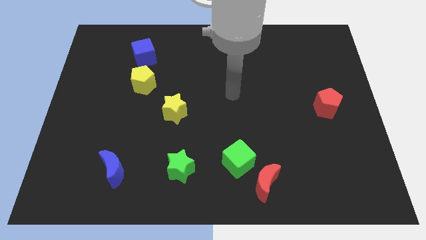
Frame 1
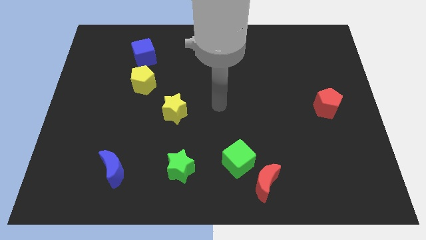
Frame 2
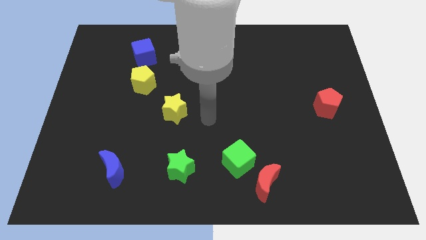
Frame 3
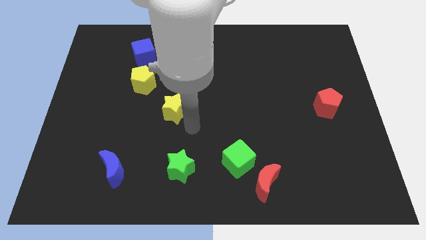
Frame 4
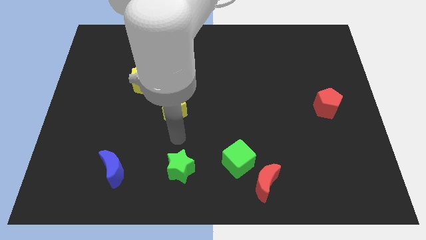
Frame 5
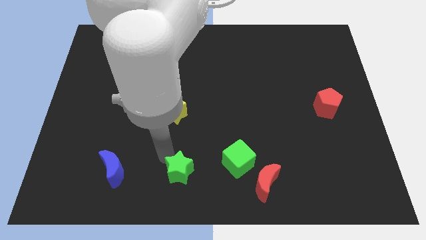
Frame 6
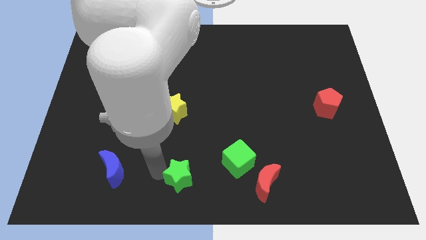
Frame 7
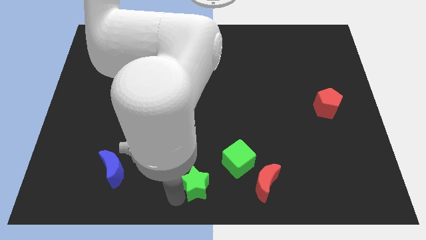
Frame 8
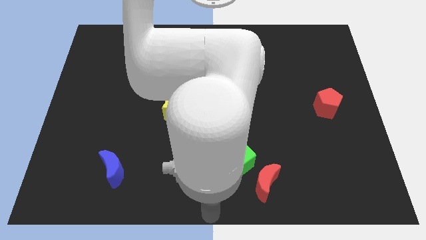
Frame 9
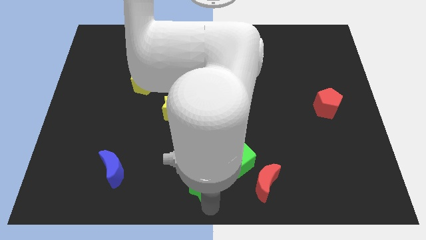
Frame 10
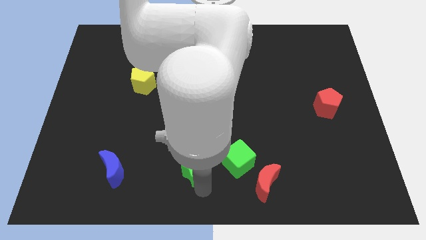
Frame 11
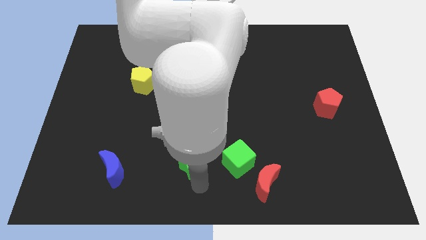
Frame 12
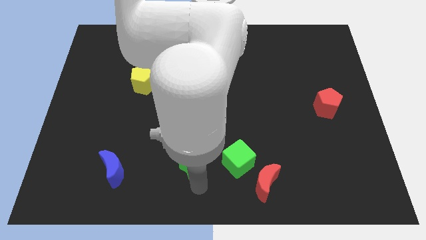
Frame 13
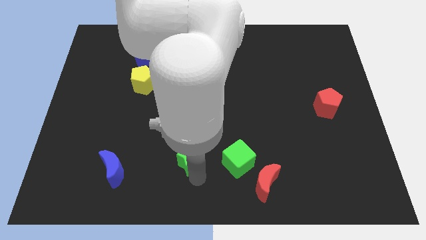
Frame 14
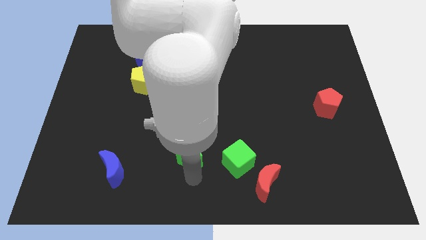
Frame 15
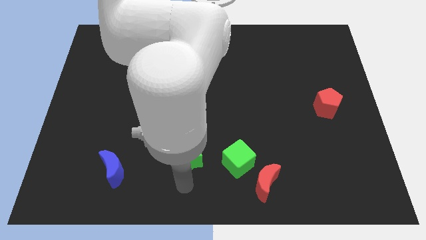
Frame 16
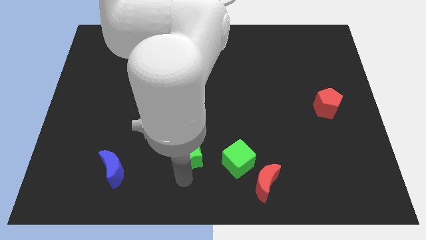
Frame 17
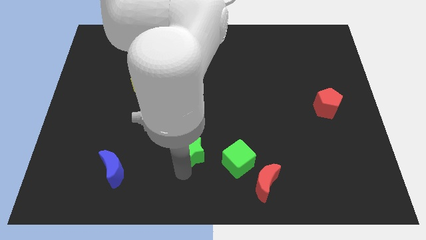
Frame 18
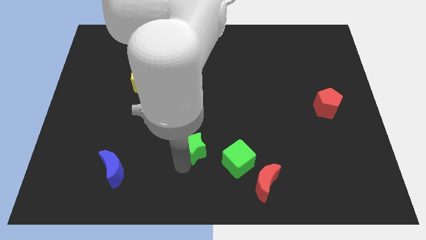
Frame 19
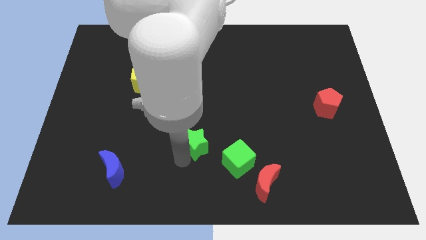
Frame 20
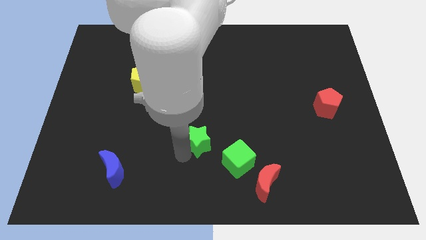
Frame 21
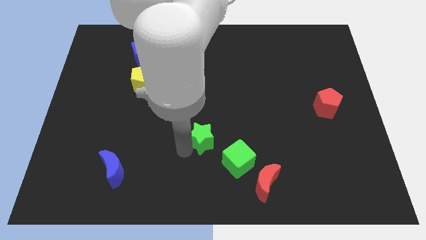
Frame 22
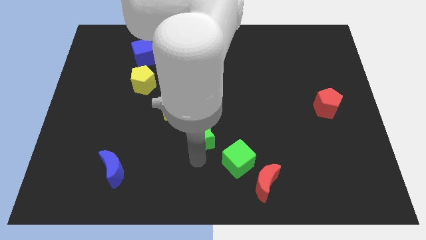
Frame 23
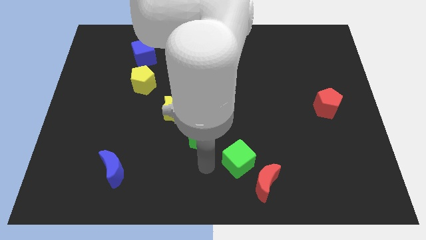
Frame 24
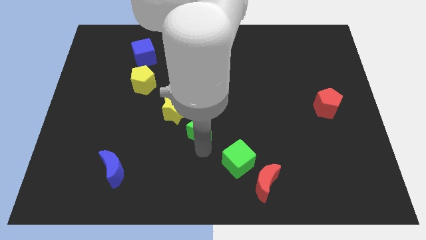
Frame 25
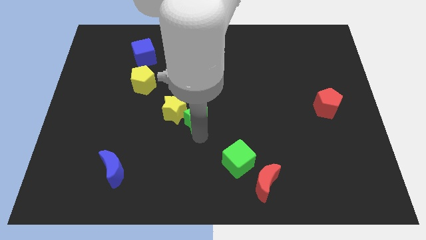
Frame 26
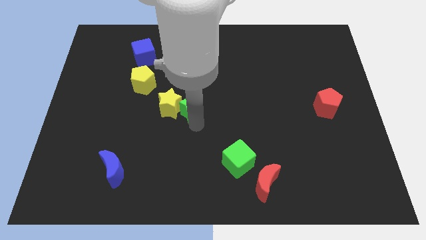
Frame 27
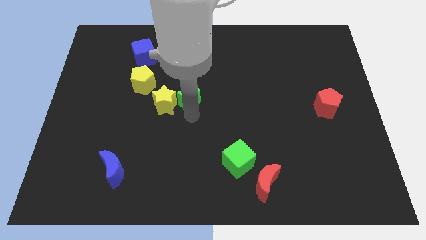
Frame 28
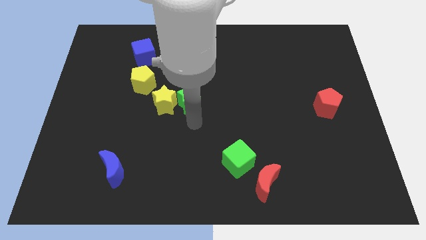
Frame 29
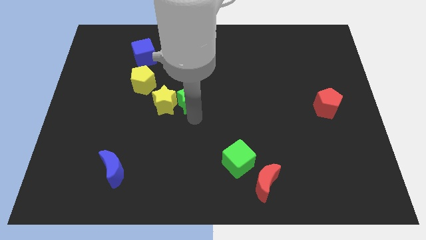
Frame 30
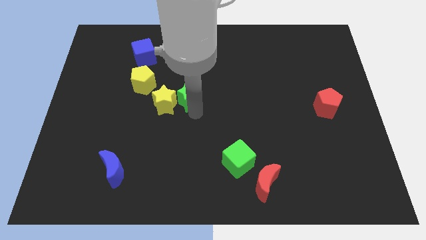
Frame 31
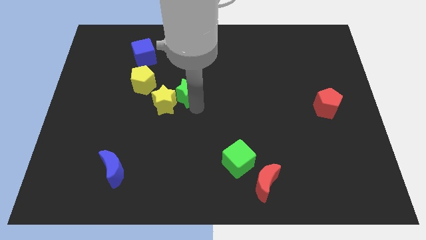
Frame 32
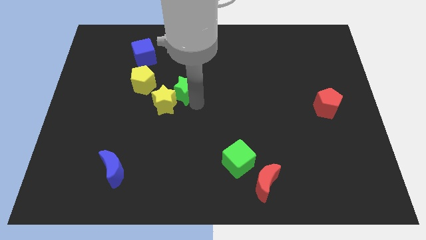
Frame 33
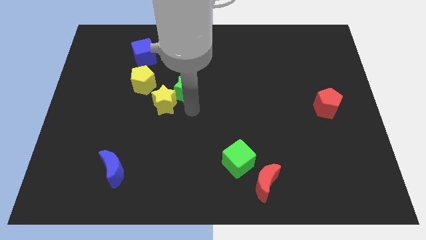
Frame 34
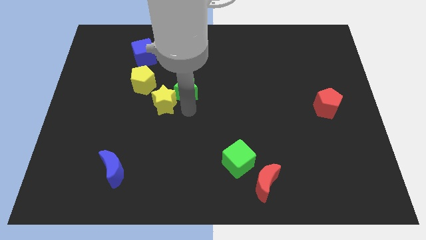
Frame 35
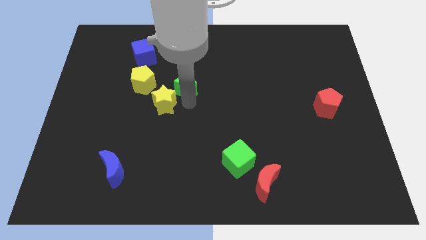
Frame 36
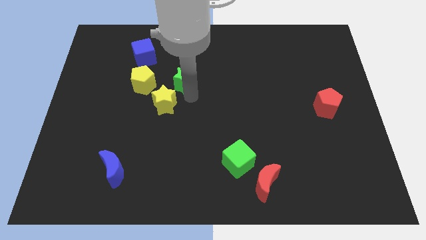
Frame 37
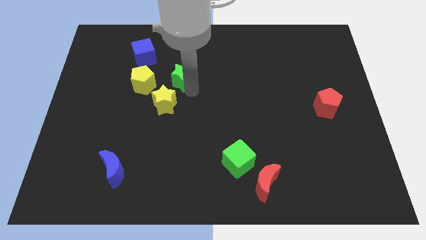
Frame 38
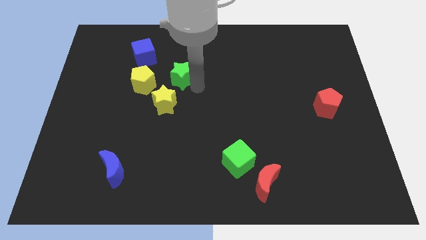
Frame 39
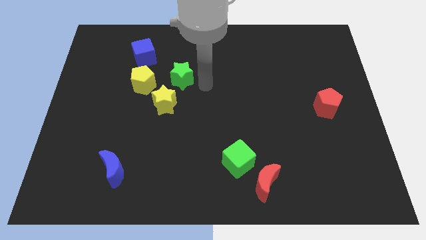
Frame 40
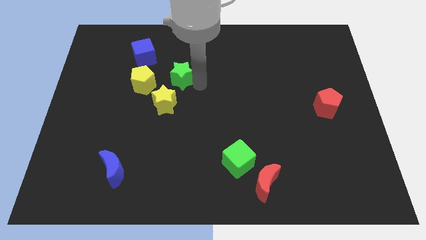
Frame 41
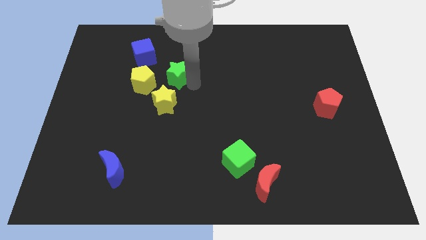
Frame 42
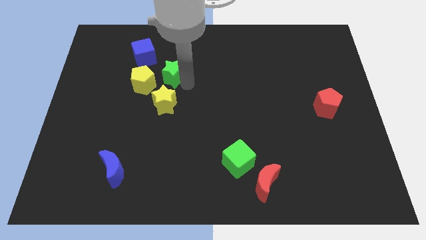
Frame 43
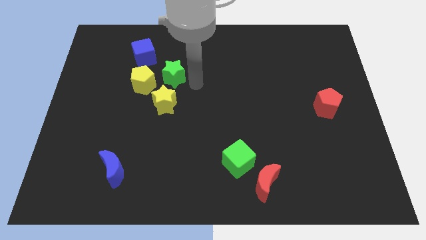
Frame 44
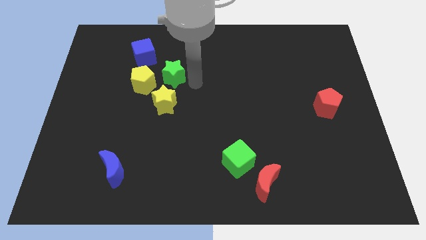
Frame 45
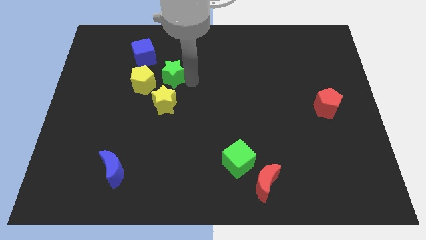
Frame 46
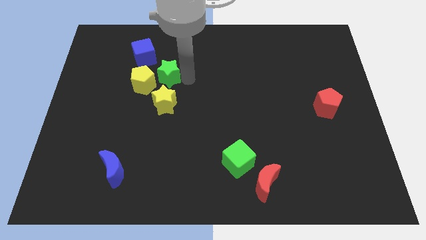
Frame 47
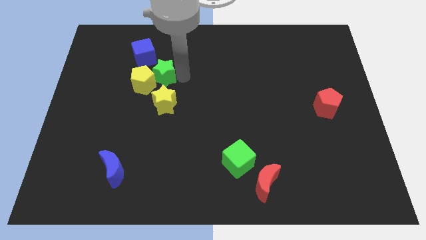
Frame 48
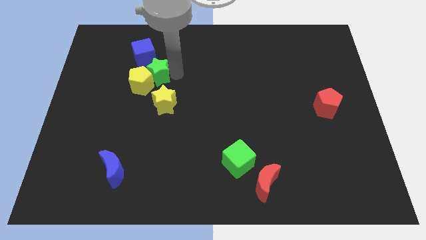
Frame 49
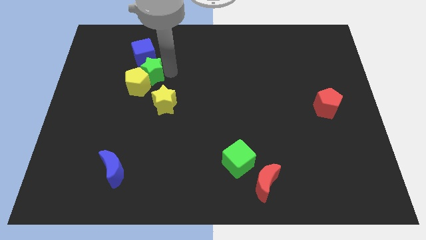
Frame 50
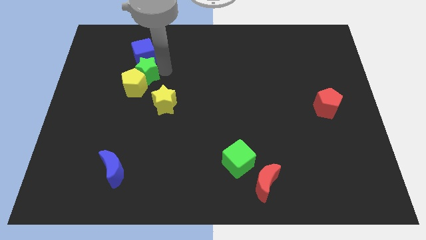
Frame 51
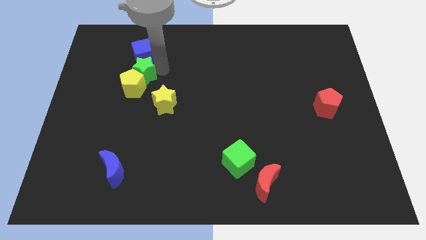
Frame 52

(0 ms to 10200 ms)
slide the green star close to the blue cube

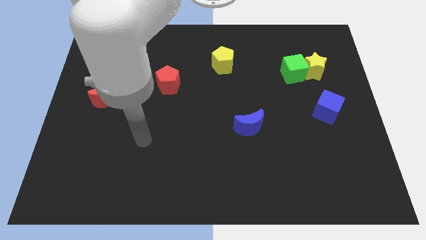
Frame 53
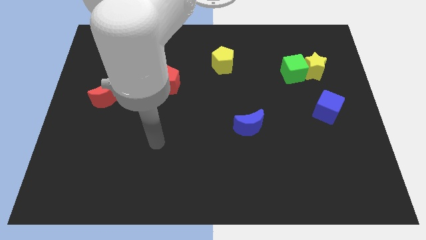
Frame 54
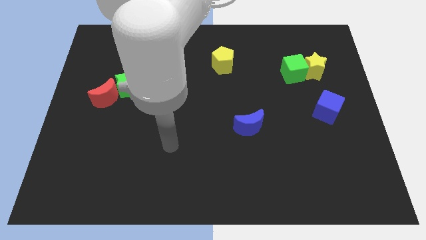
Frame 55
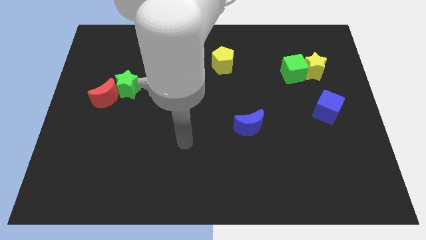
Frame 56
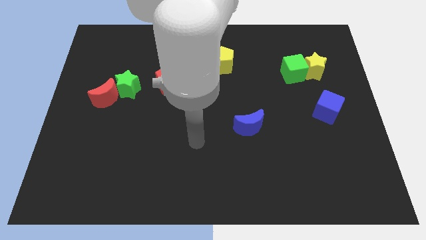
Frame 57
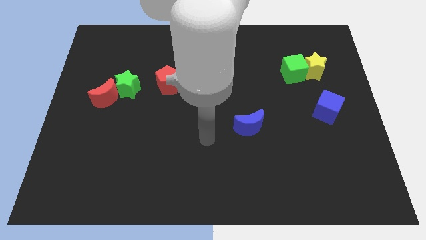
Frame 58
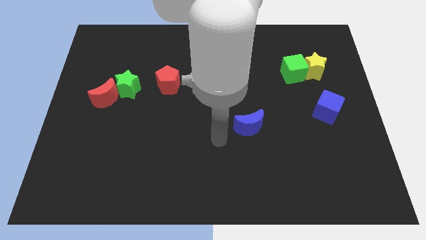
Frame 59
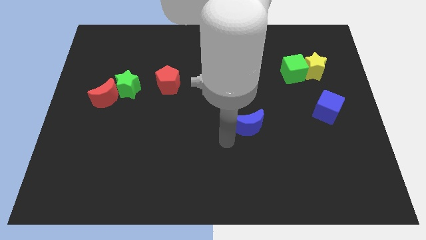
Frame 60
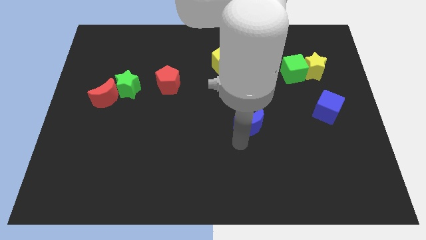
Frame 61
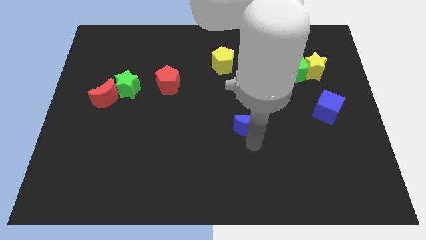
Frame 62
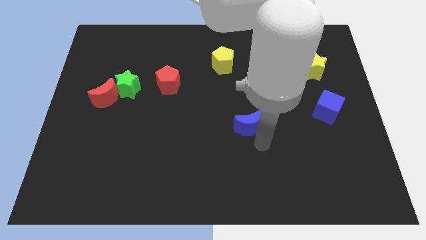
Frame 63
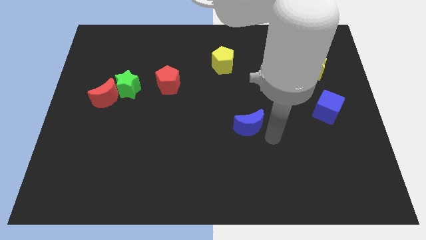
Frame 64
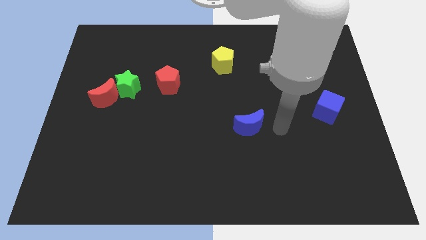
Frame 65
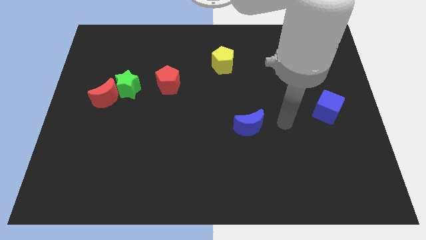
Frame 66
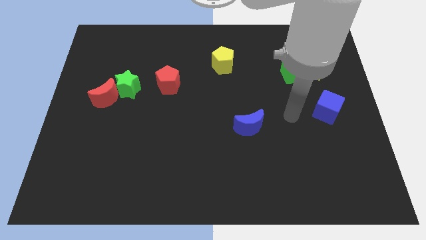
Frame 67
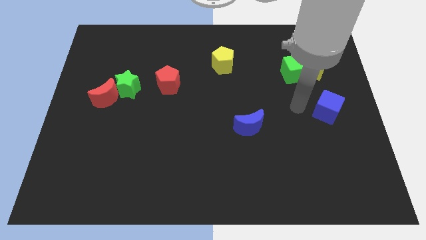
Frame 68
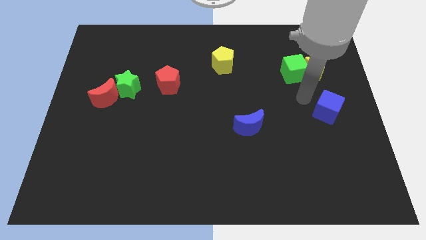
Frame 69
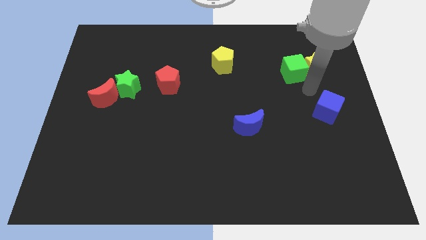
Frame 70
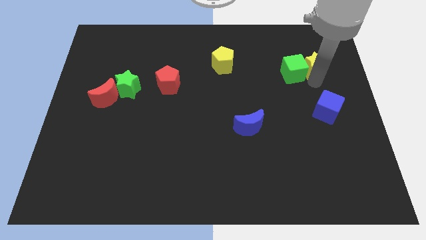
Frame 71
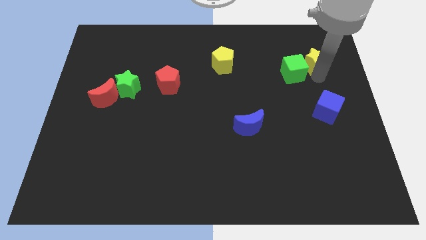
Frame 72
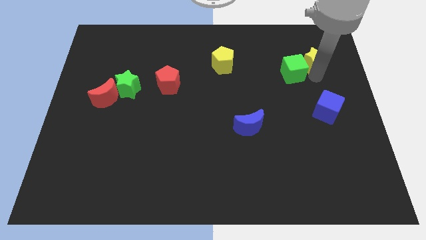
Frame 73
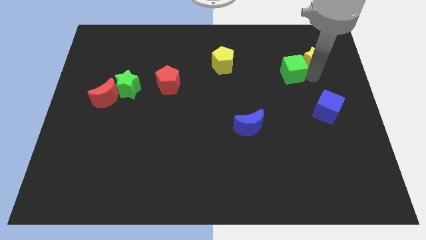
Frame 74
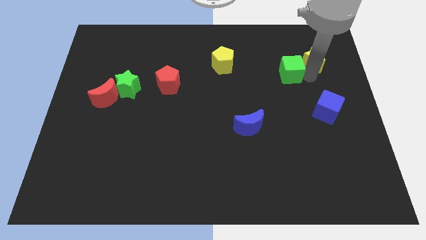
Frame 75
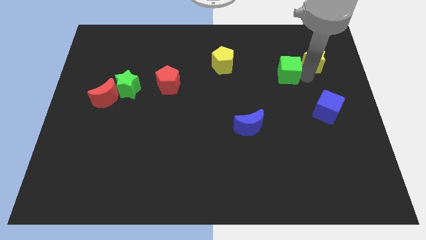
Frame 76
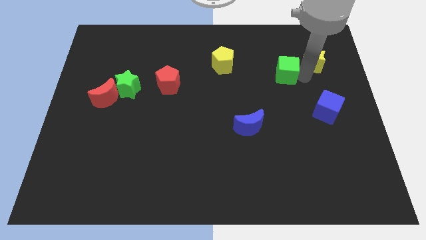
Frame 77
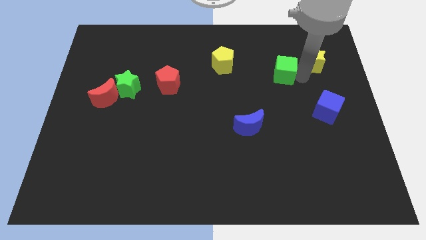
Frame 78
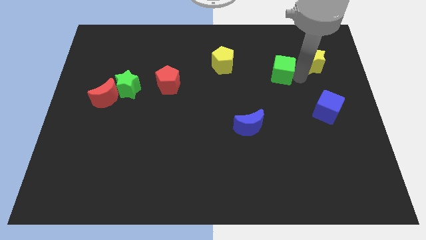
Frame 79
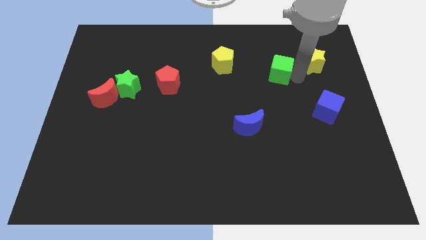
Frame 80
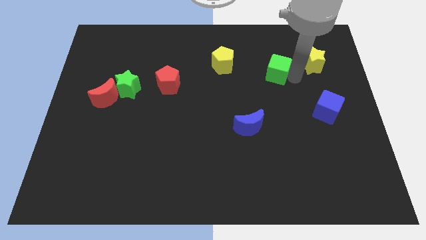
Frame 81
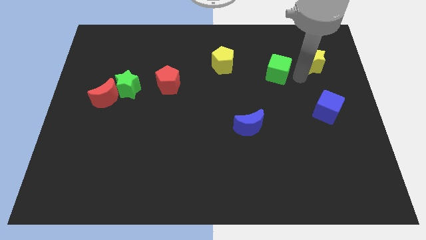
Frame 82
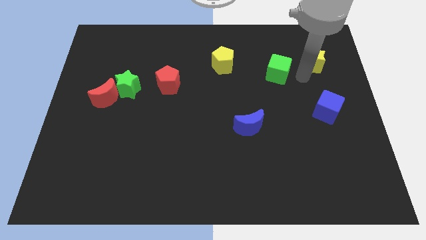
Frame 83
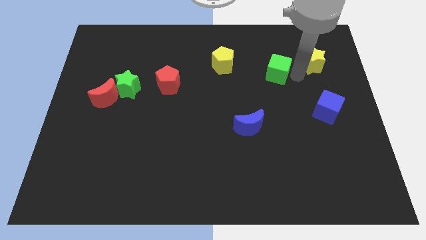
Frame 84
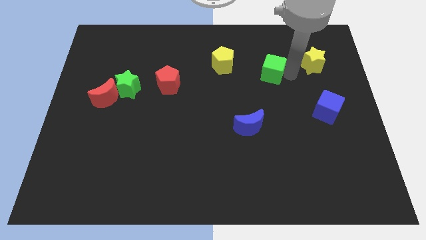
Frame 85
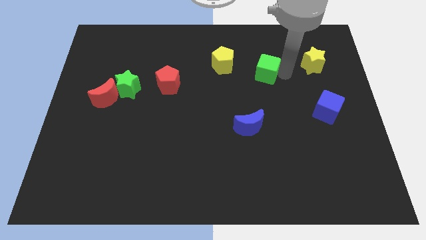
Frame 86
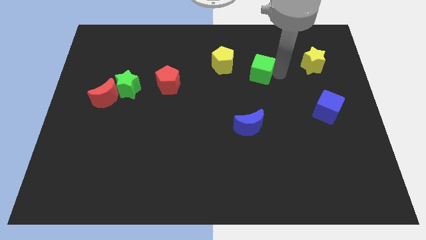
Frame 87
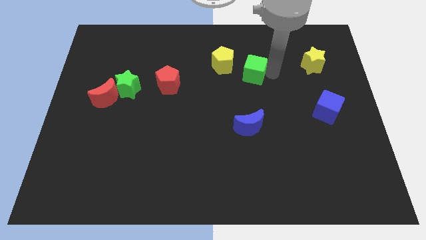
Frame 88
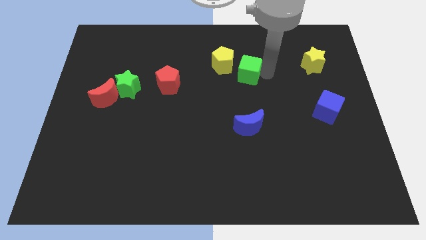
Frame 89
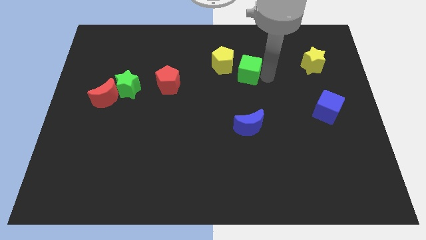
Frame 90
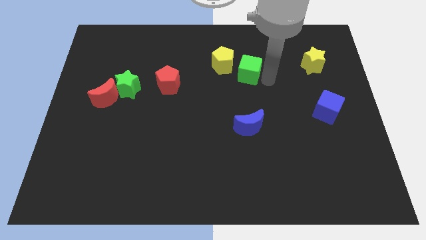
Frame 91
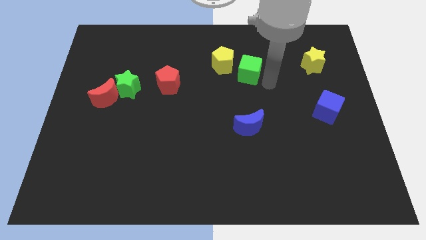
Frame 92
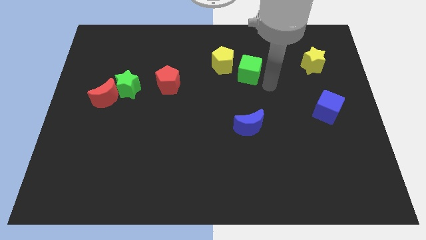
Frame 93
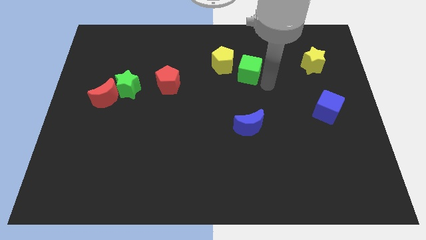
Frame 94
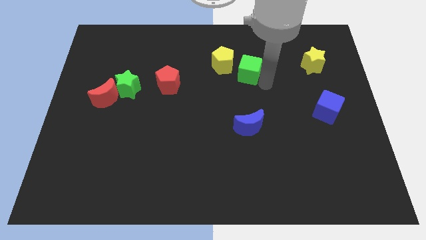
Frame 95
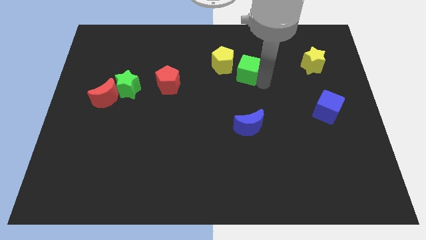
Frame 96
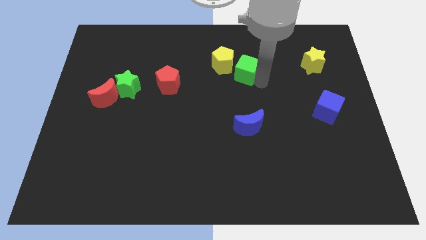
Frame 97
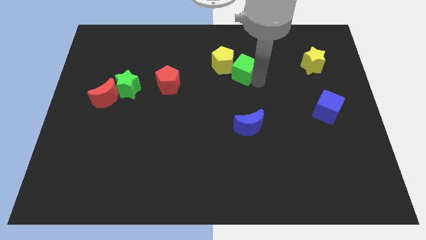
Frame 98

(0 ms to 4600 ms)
slide the green cube close to the yellow pentagon
